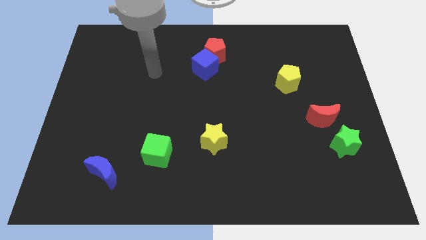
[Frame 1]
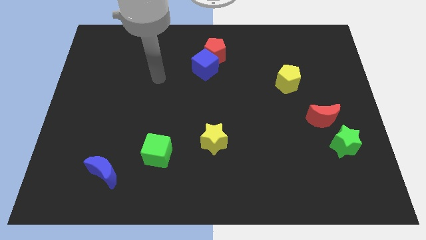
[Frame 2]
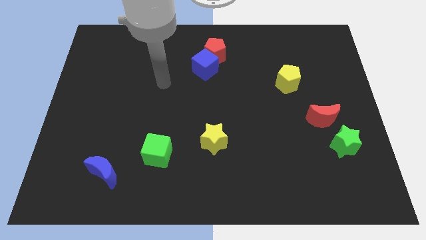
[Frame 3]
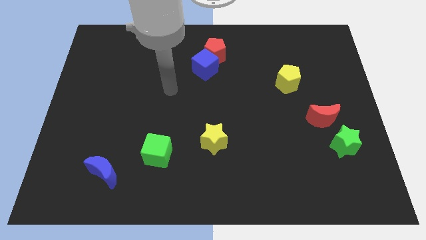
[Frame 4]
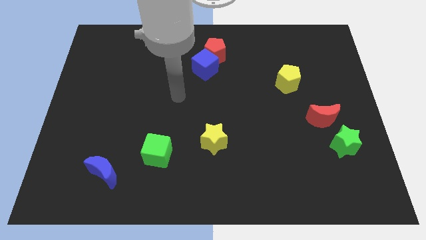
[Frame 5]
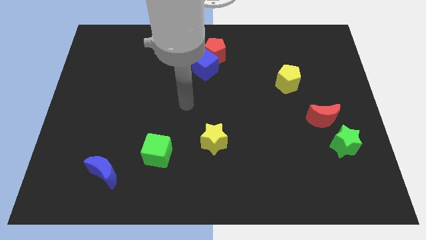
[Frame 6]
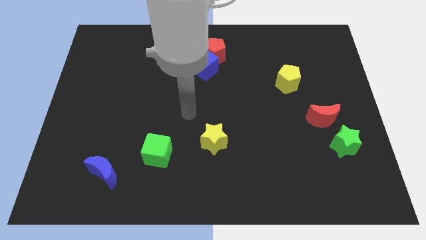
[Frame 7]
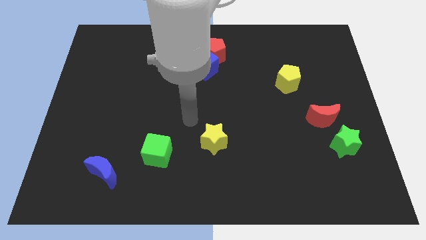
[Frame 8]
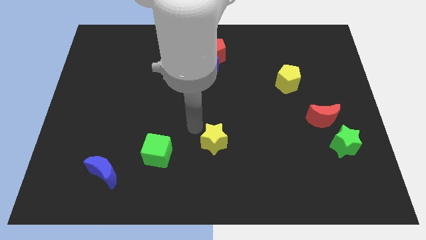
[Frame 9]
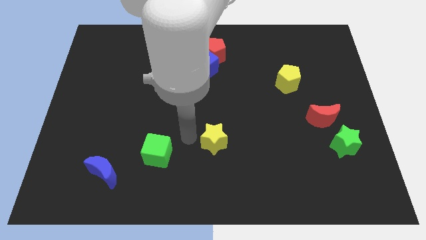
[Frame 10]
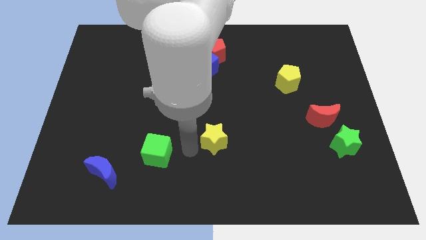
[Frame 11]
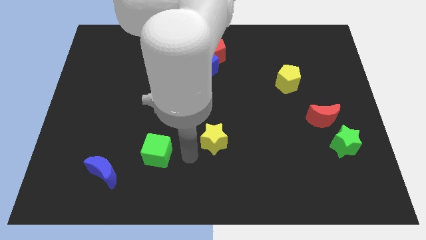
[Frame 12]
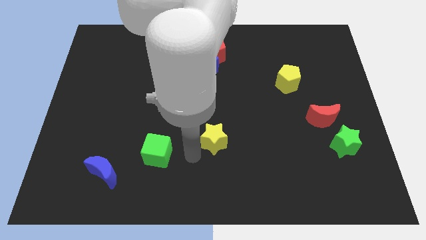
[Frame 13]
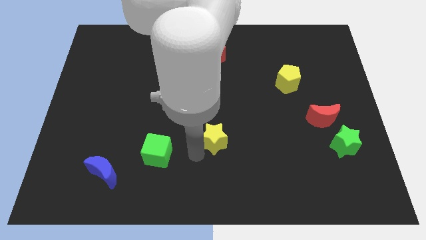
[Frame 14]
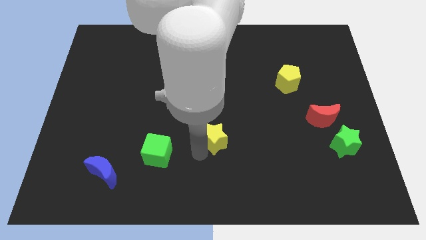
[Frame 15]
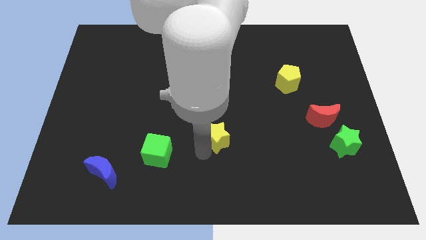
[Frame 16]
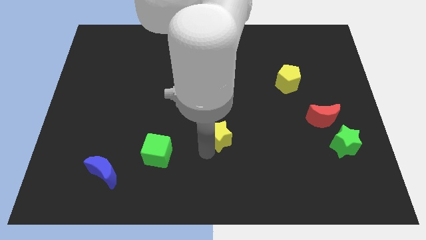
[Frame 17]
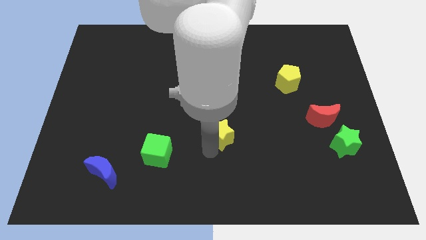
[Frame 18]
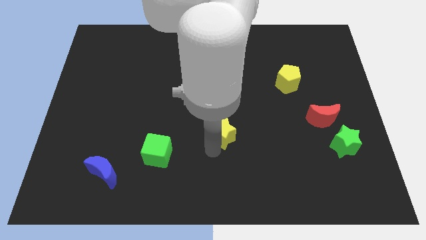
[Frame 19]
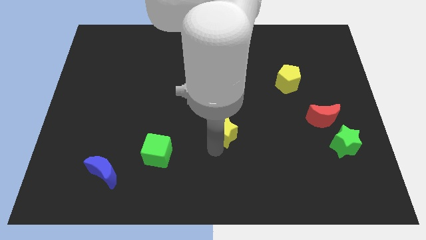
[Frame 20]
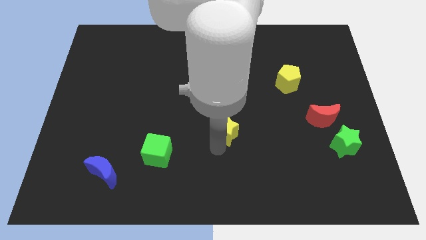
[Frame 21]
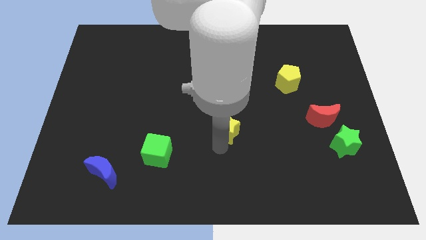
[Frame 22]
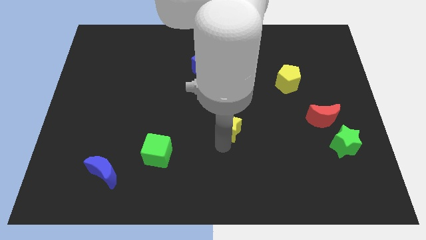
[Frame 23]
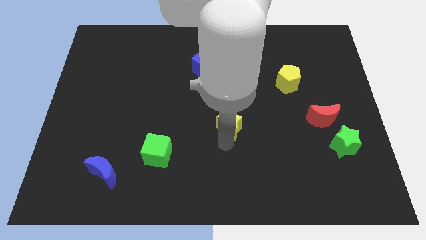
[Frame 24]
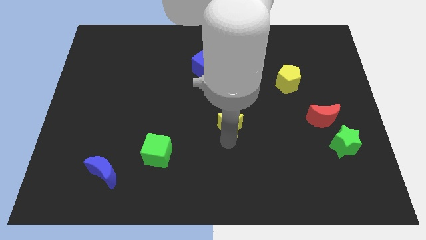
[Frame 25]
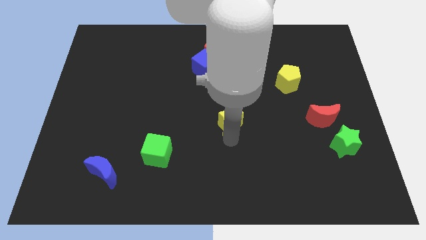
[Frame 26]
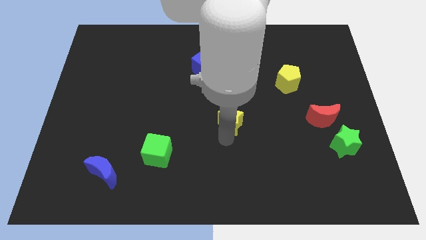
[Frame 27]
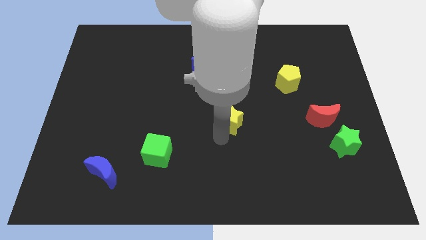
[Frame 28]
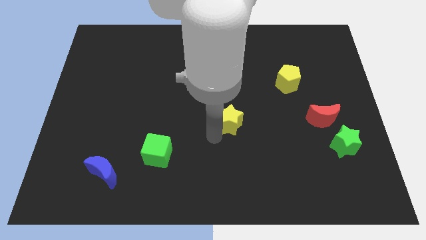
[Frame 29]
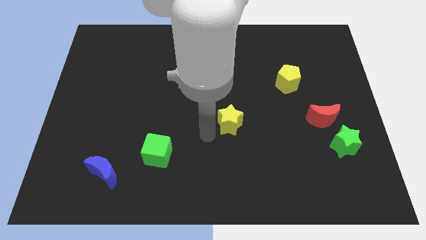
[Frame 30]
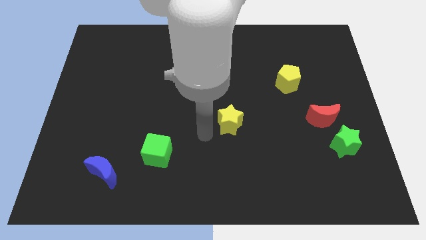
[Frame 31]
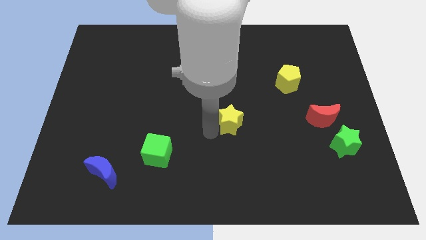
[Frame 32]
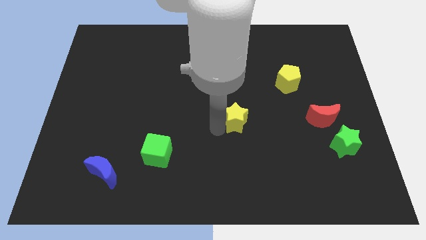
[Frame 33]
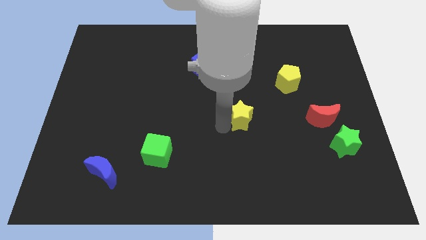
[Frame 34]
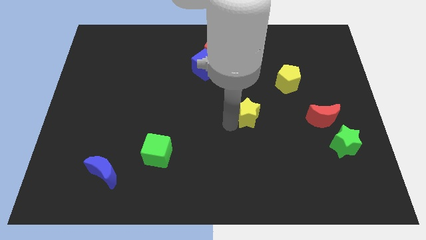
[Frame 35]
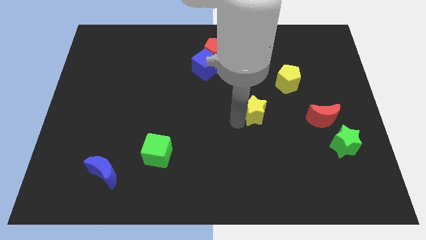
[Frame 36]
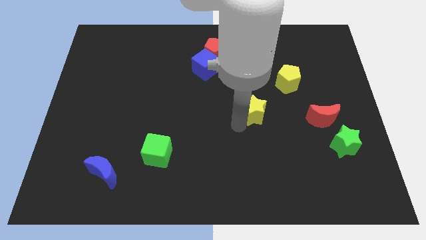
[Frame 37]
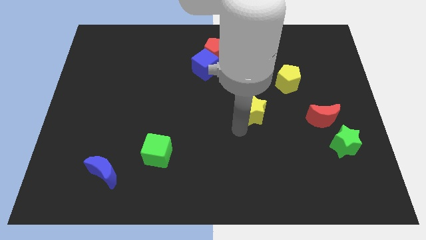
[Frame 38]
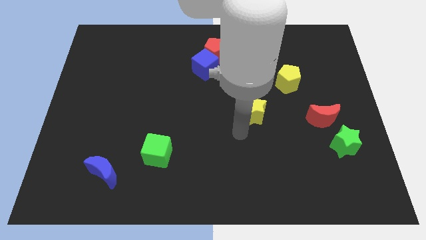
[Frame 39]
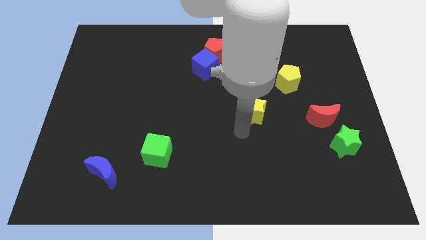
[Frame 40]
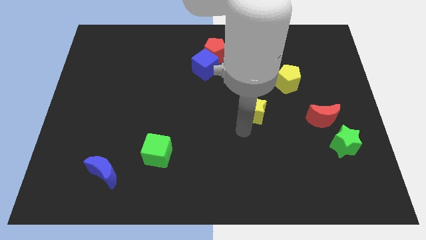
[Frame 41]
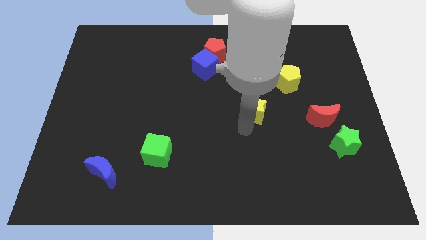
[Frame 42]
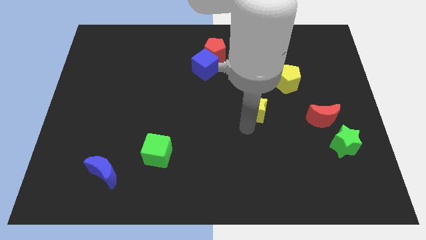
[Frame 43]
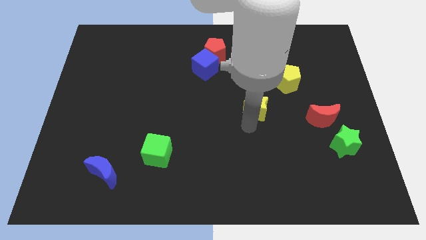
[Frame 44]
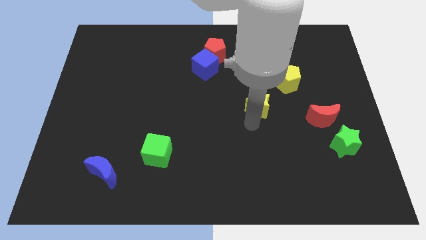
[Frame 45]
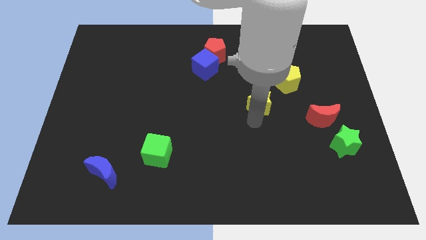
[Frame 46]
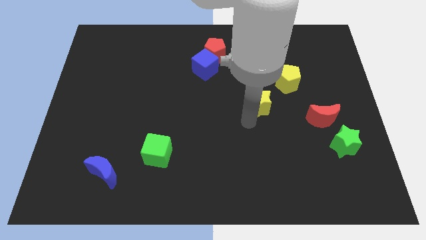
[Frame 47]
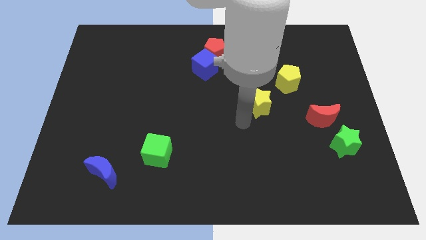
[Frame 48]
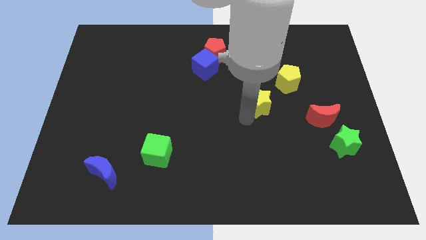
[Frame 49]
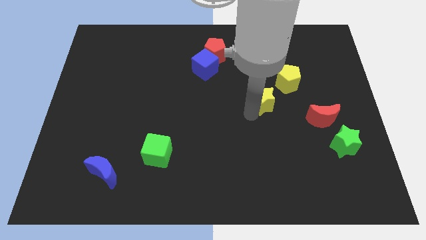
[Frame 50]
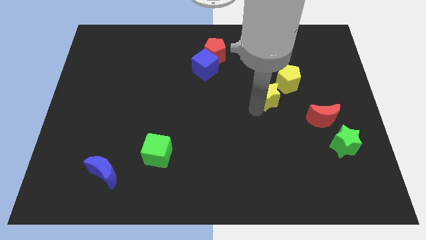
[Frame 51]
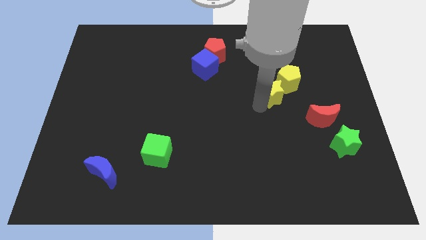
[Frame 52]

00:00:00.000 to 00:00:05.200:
put the yellow star towards the yellow pentagon
